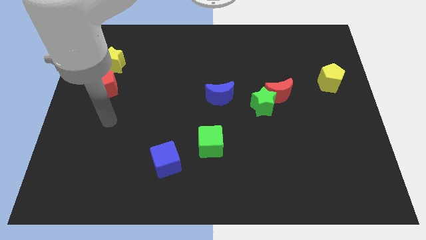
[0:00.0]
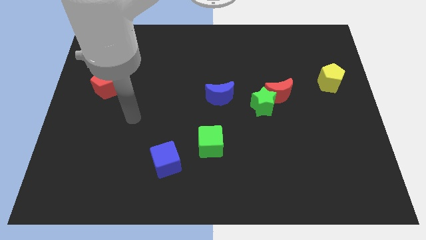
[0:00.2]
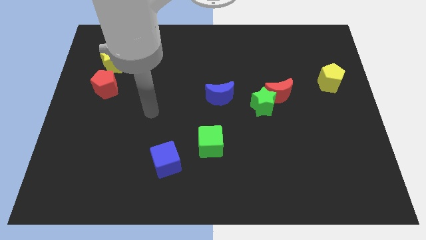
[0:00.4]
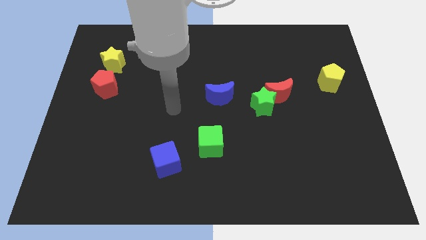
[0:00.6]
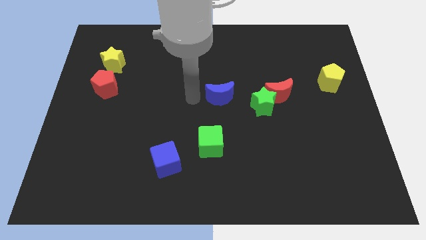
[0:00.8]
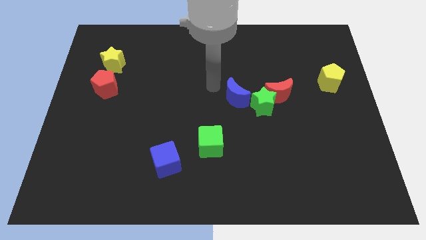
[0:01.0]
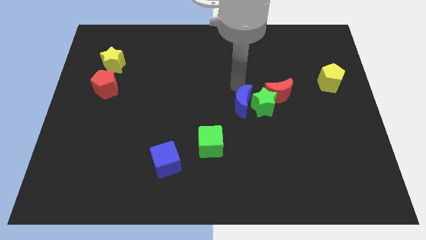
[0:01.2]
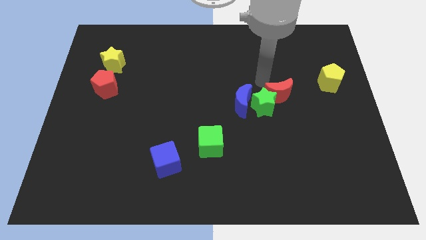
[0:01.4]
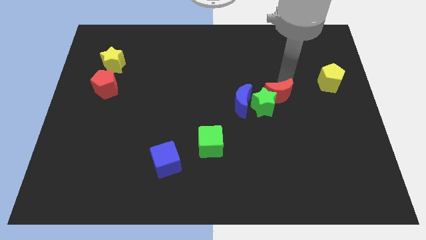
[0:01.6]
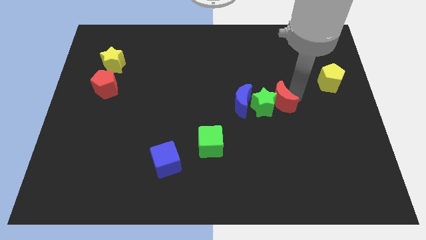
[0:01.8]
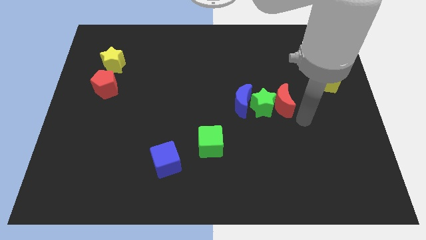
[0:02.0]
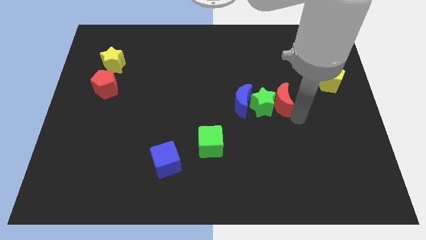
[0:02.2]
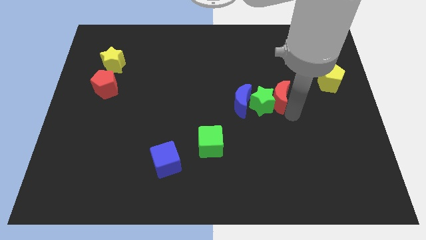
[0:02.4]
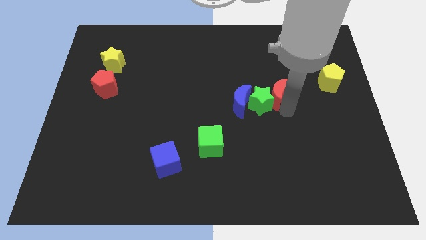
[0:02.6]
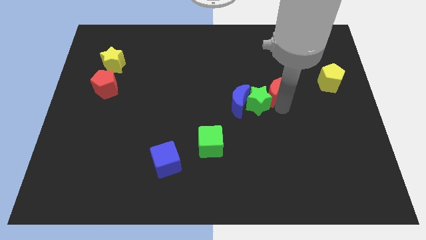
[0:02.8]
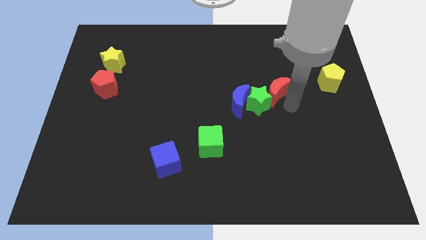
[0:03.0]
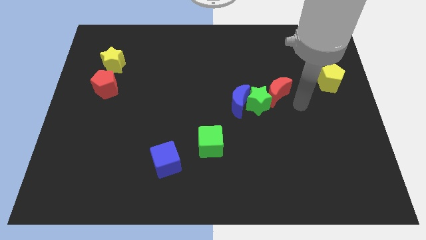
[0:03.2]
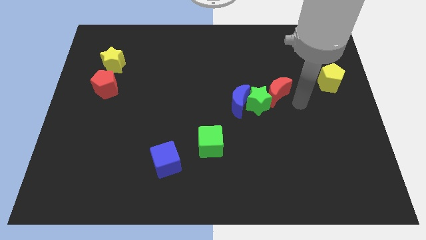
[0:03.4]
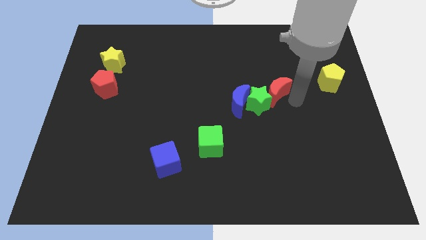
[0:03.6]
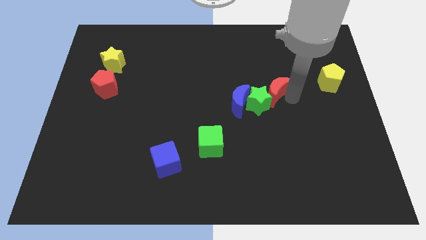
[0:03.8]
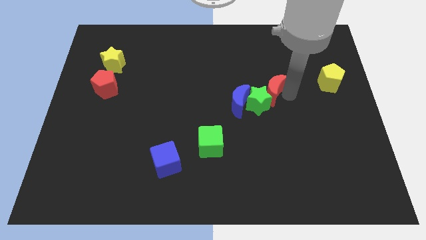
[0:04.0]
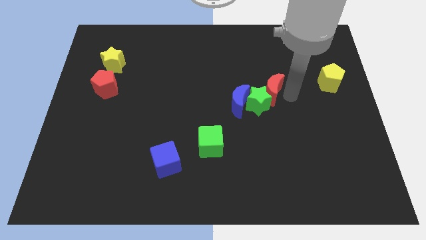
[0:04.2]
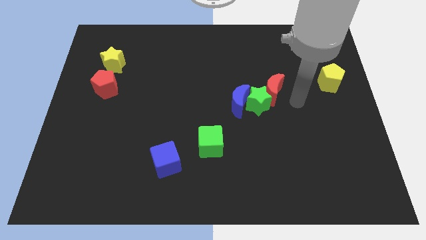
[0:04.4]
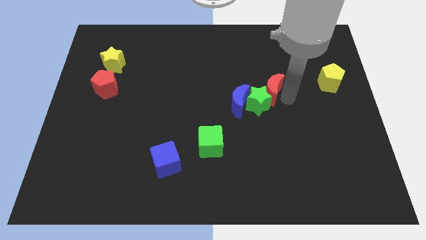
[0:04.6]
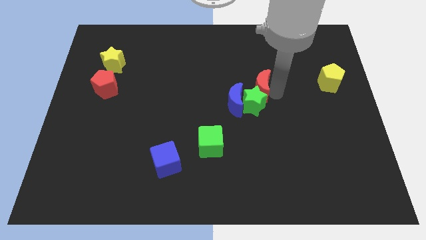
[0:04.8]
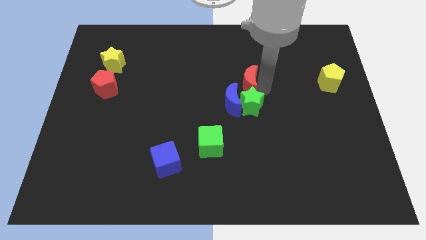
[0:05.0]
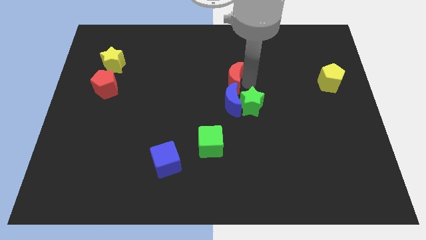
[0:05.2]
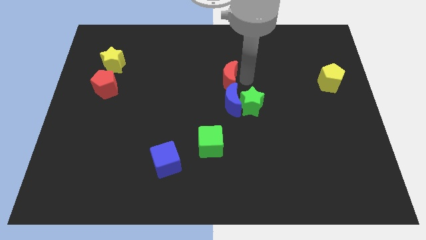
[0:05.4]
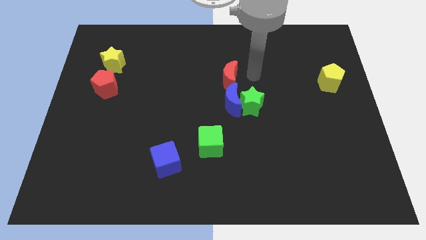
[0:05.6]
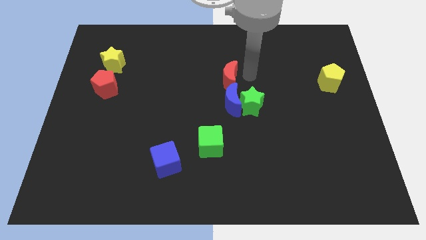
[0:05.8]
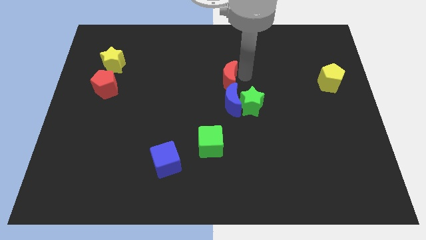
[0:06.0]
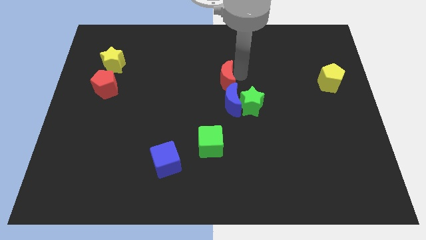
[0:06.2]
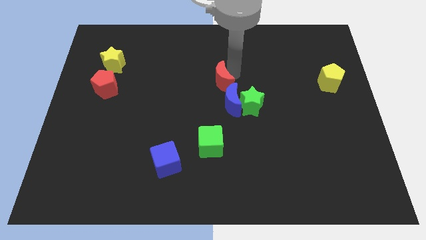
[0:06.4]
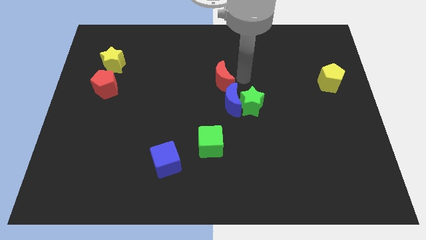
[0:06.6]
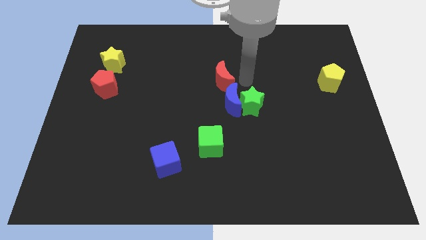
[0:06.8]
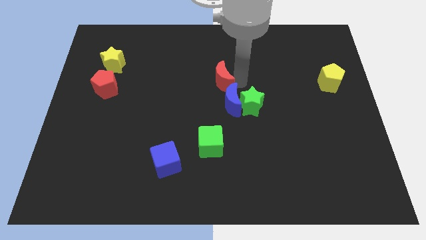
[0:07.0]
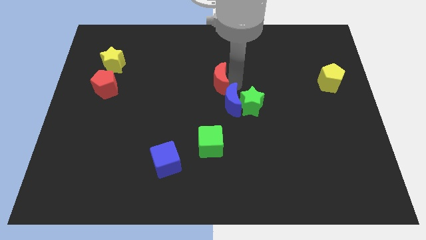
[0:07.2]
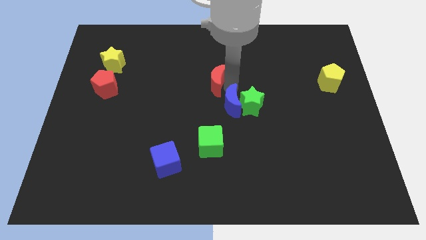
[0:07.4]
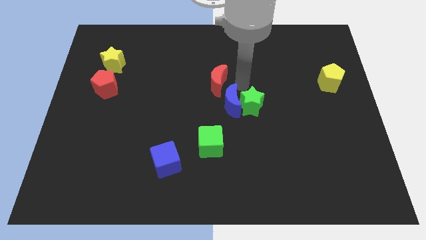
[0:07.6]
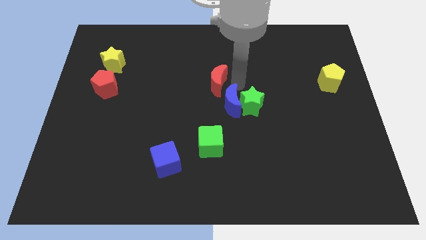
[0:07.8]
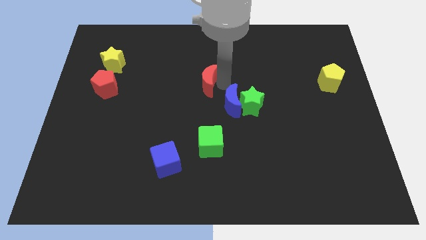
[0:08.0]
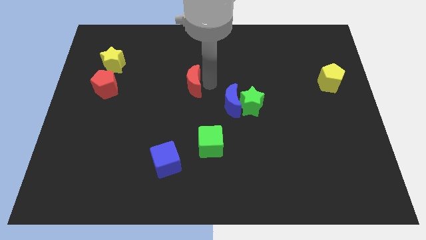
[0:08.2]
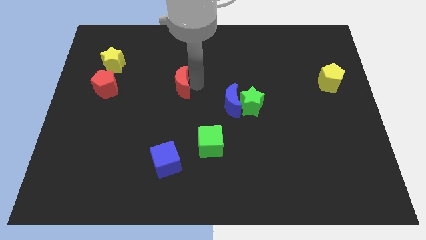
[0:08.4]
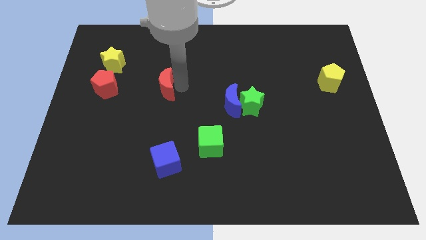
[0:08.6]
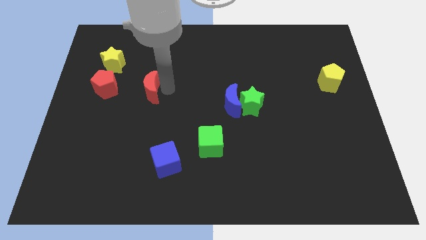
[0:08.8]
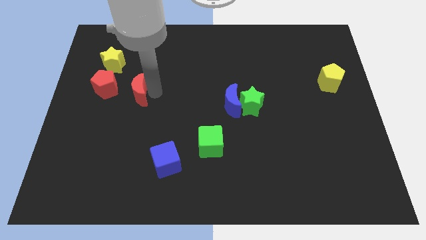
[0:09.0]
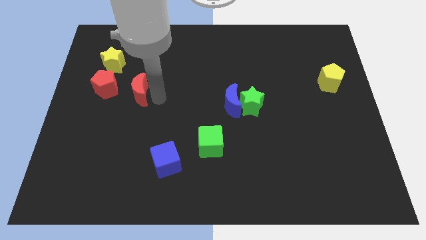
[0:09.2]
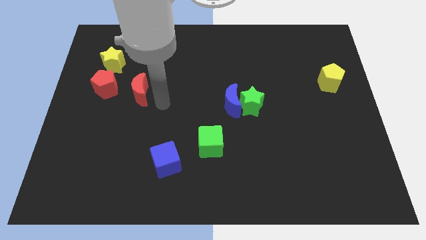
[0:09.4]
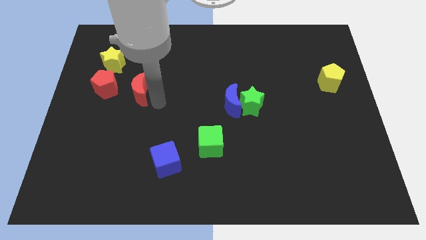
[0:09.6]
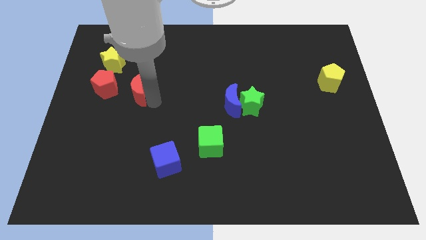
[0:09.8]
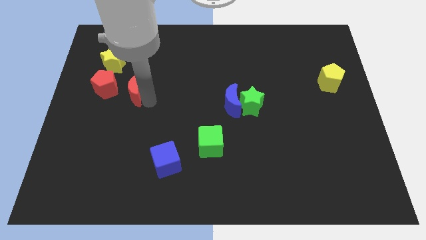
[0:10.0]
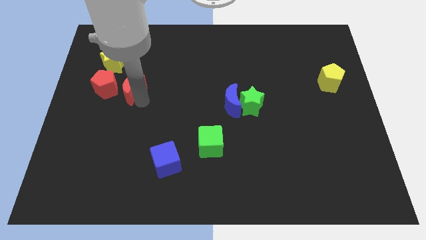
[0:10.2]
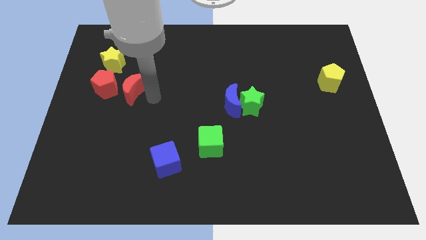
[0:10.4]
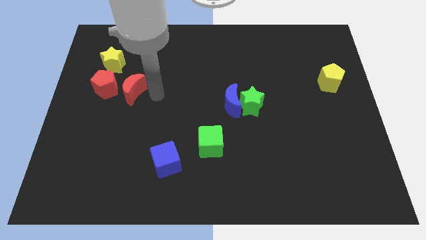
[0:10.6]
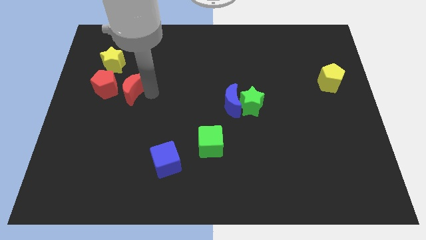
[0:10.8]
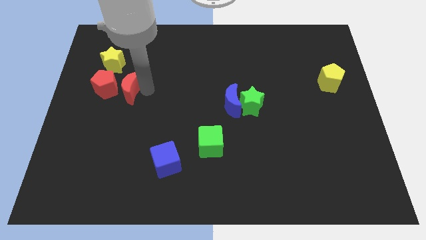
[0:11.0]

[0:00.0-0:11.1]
slide the red moon to the red pentagon

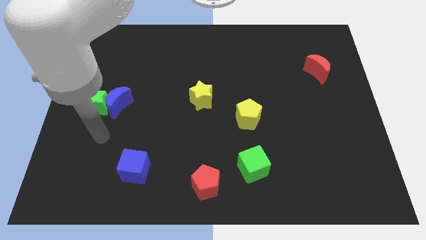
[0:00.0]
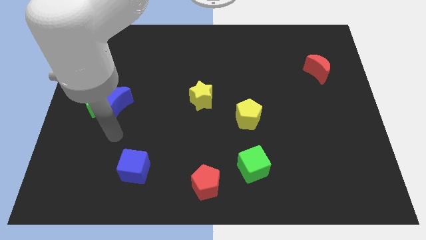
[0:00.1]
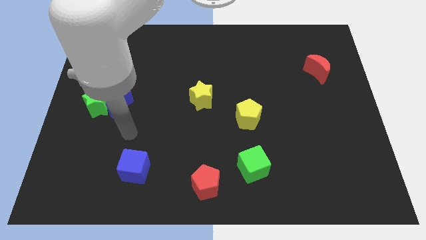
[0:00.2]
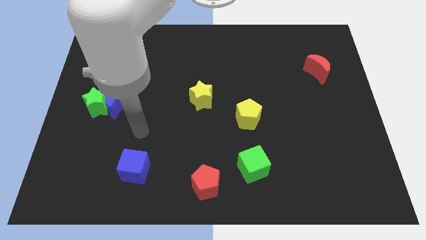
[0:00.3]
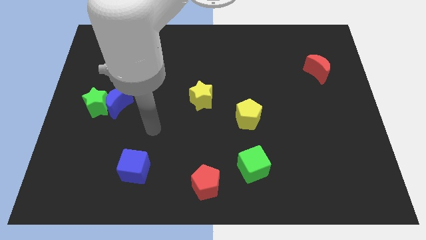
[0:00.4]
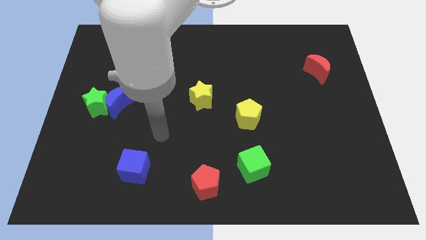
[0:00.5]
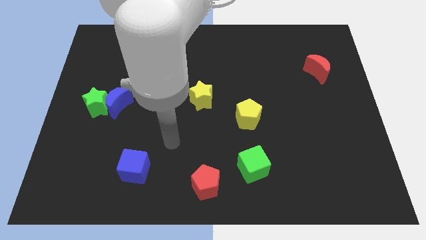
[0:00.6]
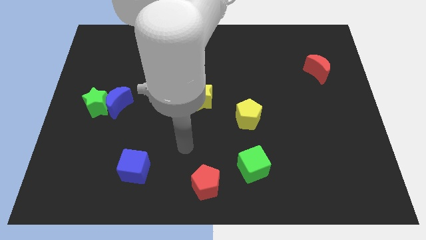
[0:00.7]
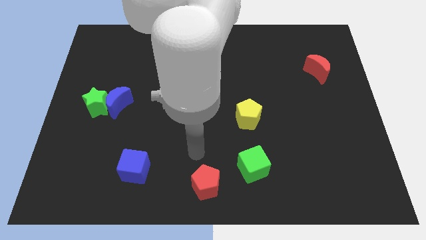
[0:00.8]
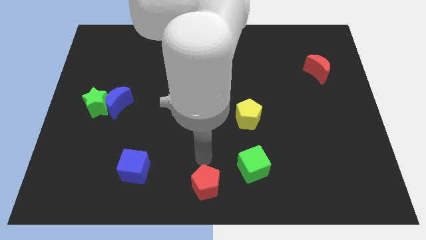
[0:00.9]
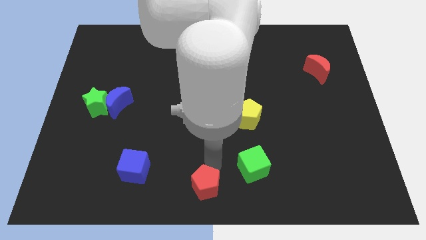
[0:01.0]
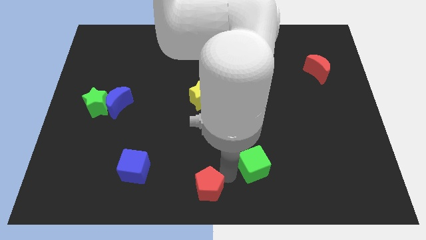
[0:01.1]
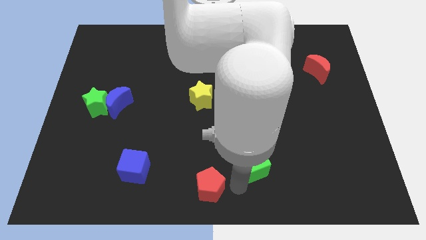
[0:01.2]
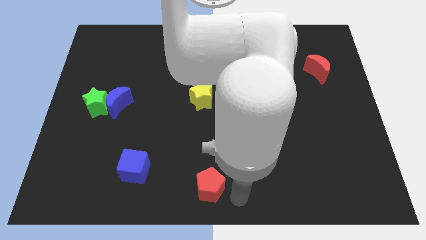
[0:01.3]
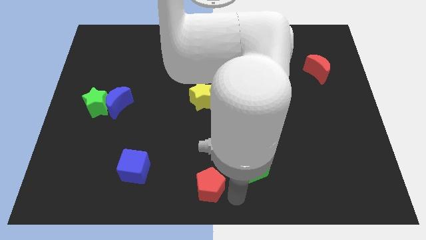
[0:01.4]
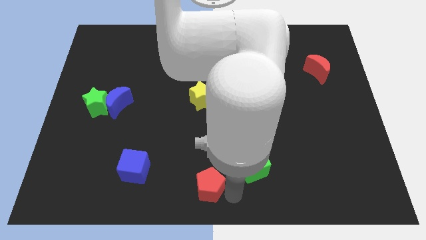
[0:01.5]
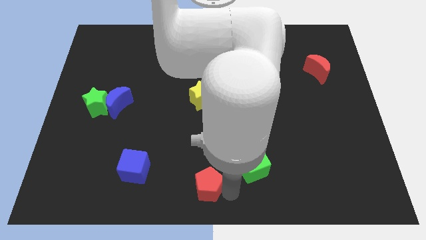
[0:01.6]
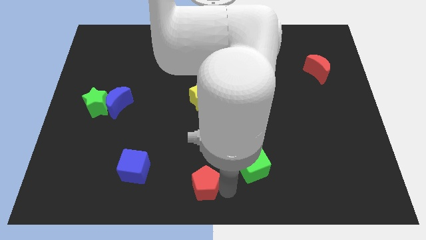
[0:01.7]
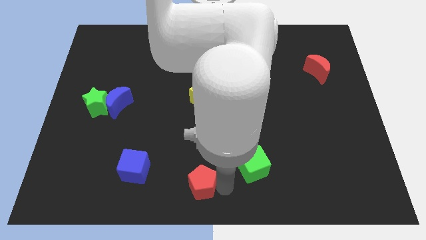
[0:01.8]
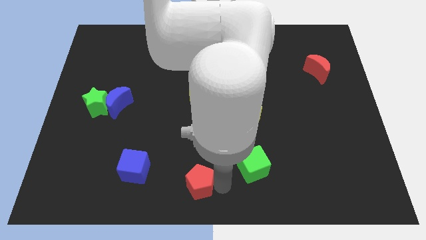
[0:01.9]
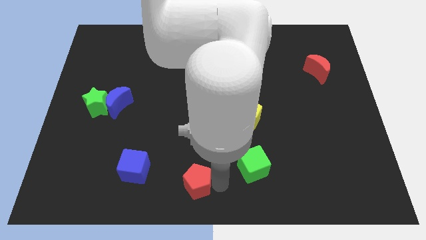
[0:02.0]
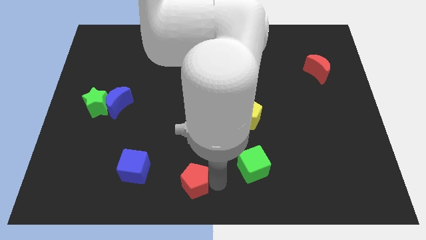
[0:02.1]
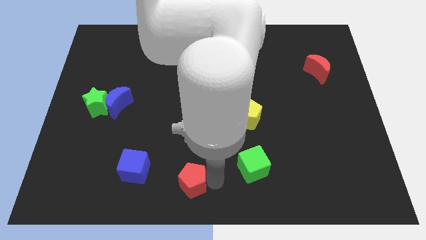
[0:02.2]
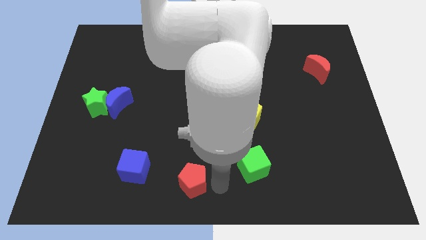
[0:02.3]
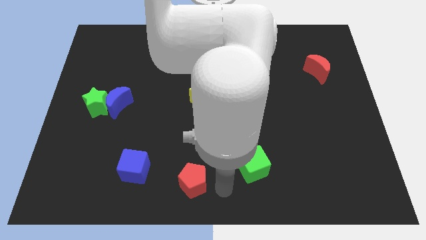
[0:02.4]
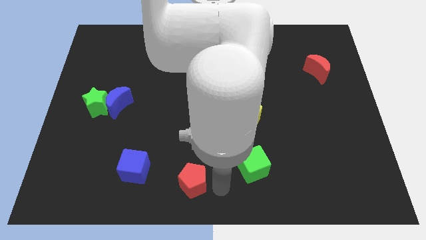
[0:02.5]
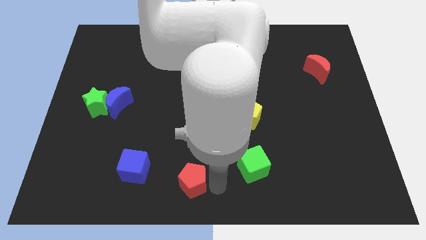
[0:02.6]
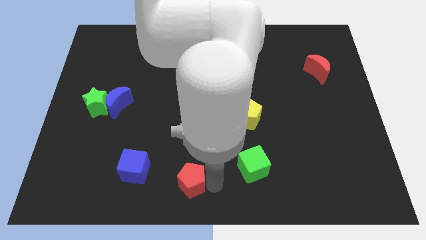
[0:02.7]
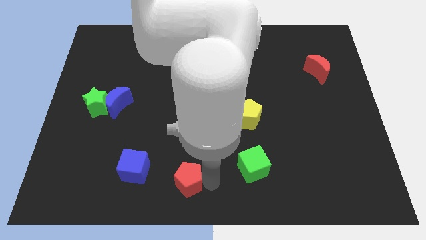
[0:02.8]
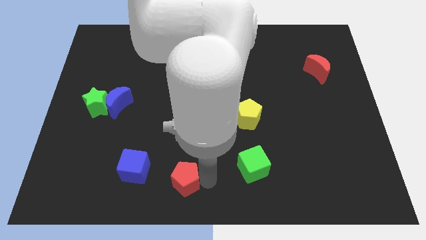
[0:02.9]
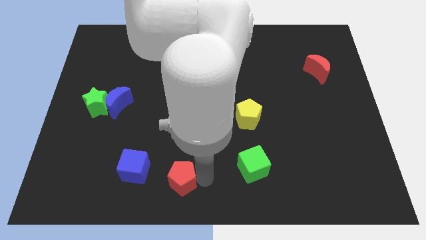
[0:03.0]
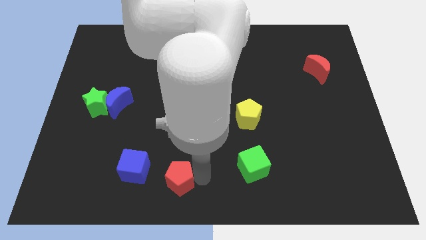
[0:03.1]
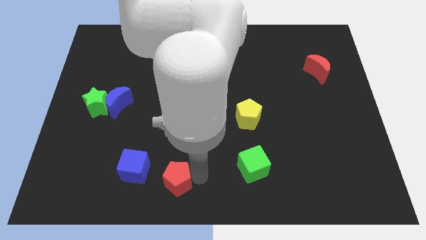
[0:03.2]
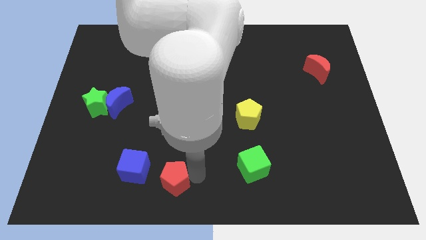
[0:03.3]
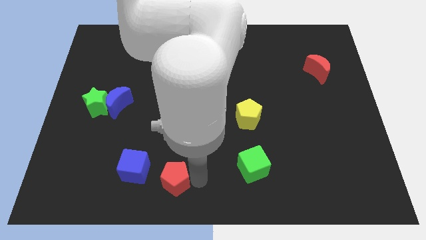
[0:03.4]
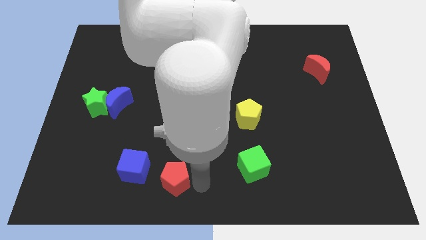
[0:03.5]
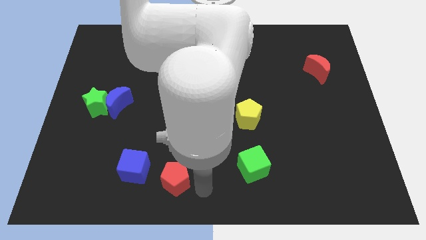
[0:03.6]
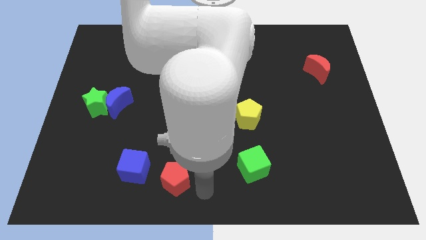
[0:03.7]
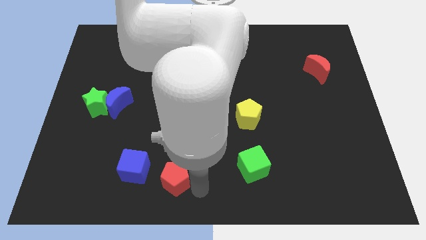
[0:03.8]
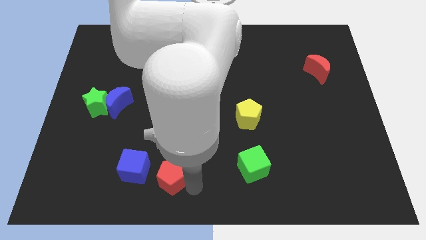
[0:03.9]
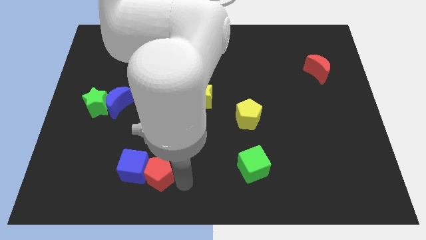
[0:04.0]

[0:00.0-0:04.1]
put the red pentagon close to the blue cube
